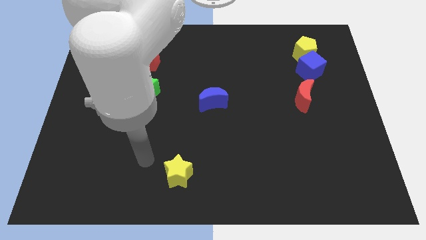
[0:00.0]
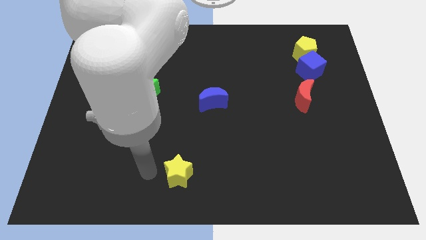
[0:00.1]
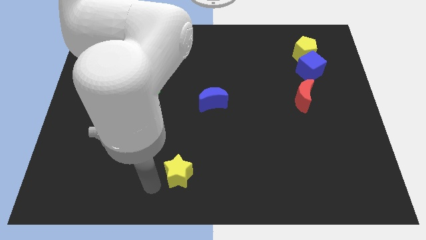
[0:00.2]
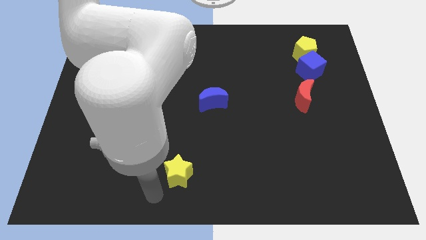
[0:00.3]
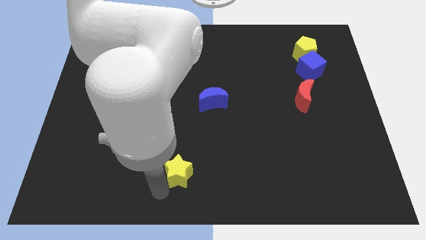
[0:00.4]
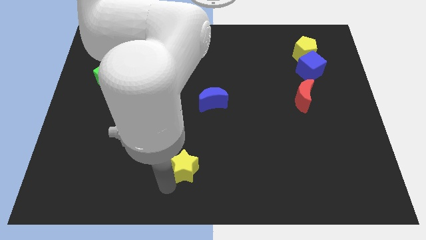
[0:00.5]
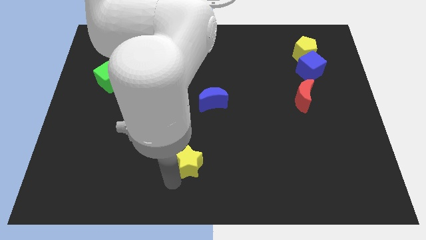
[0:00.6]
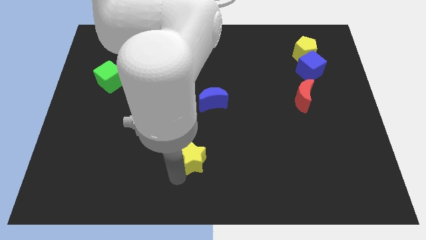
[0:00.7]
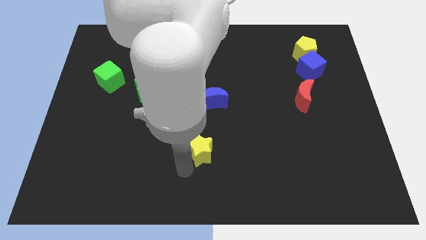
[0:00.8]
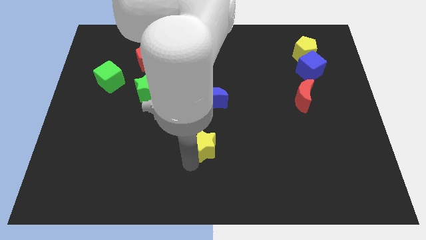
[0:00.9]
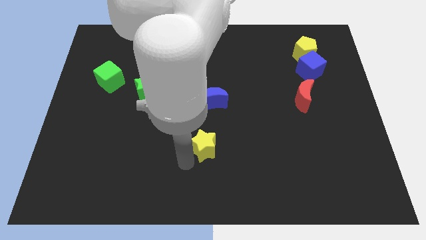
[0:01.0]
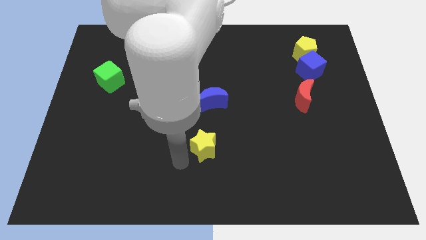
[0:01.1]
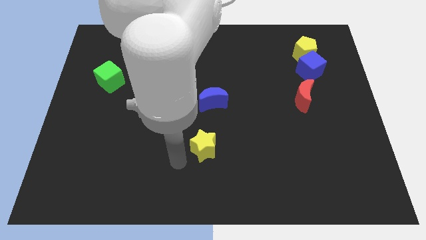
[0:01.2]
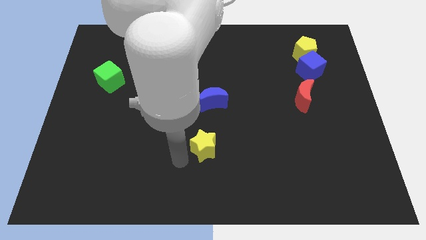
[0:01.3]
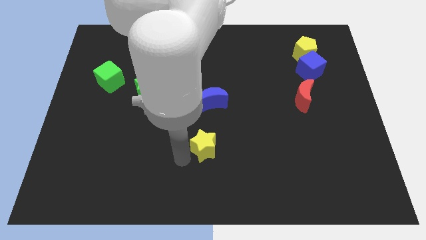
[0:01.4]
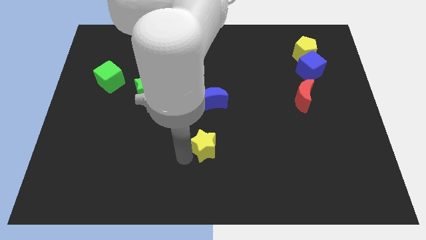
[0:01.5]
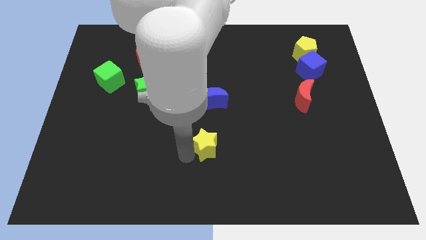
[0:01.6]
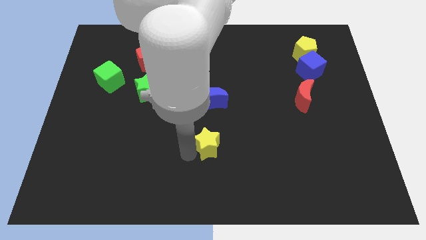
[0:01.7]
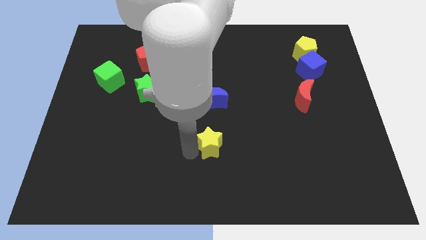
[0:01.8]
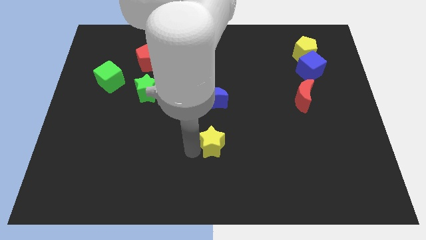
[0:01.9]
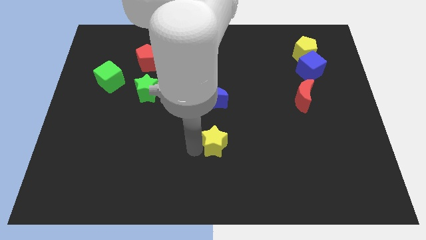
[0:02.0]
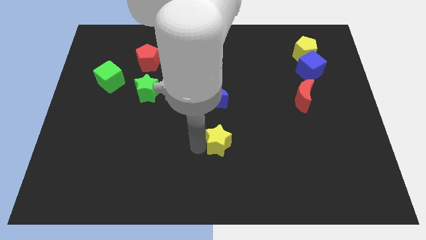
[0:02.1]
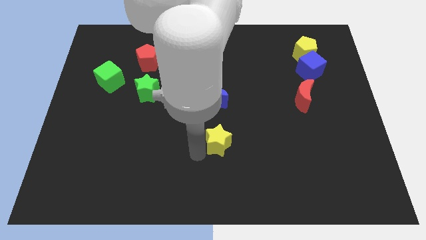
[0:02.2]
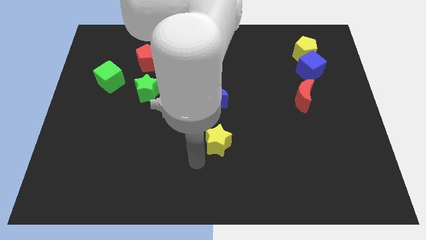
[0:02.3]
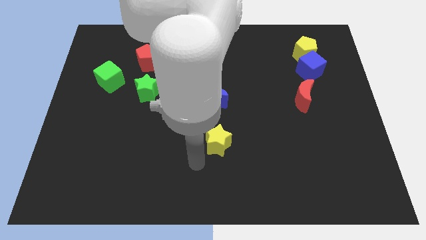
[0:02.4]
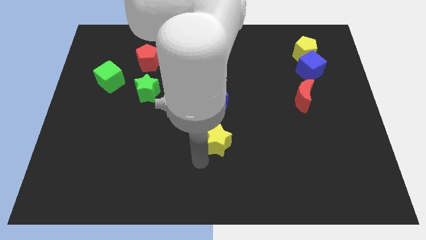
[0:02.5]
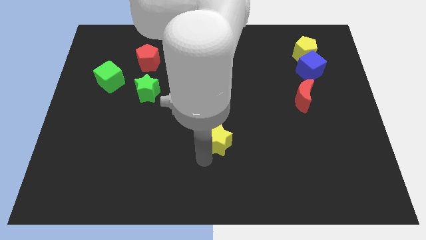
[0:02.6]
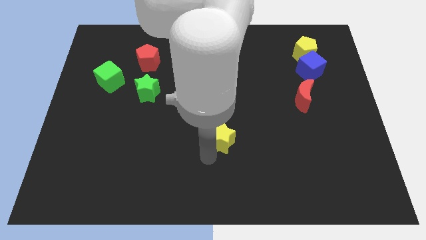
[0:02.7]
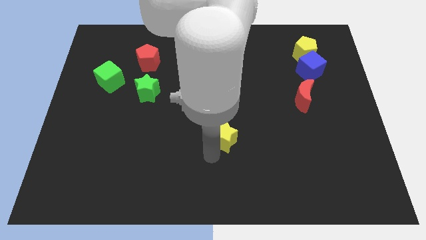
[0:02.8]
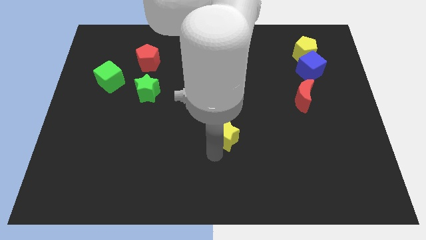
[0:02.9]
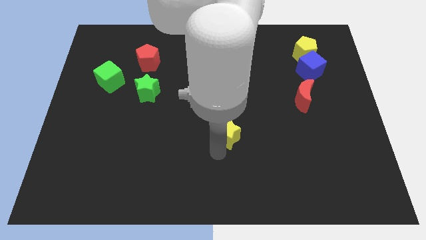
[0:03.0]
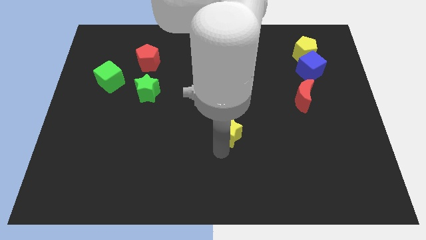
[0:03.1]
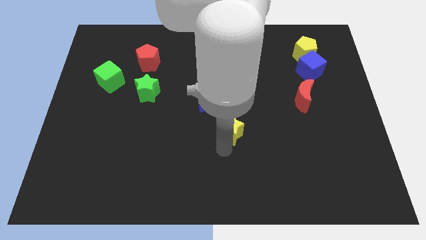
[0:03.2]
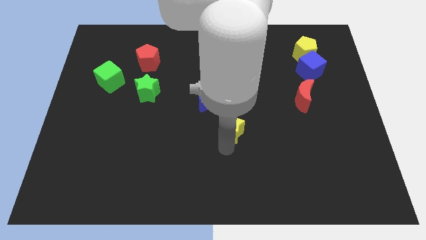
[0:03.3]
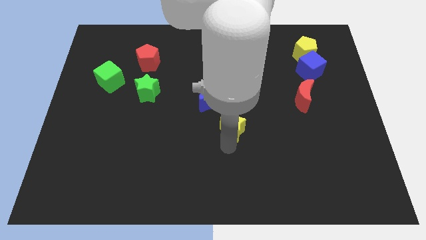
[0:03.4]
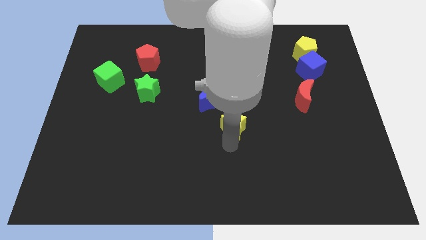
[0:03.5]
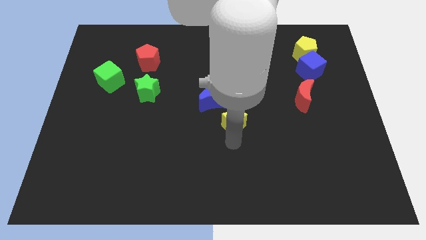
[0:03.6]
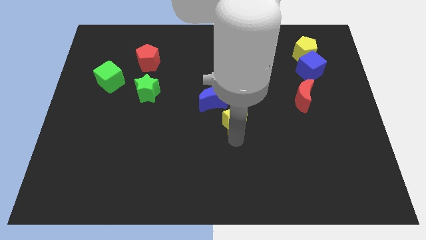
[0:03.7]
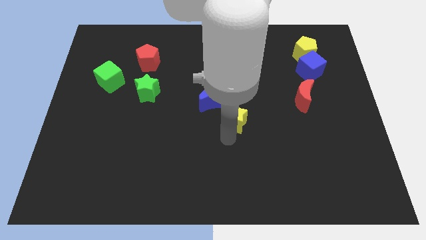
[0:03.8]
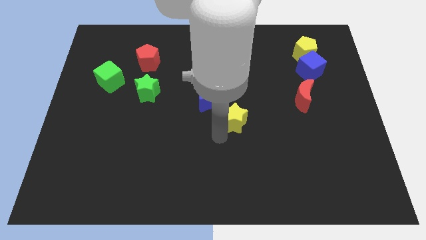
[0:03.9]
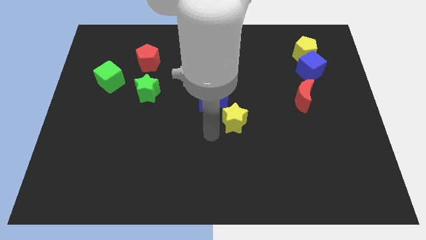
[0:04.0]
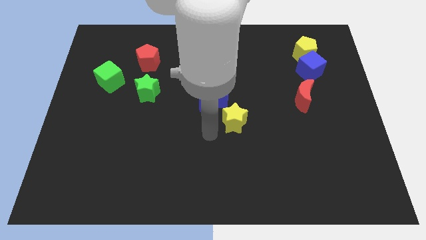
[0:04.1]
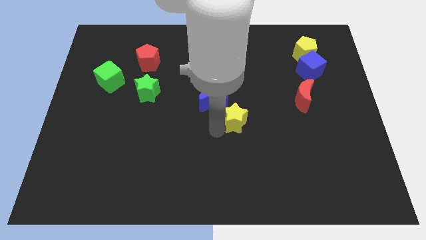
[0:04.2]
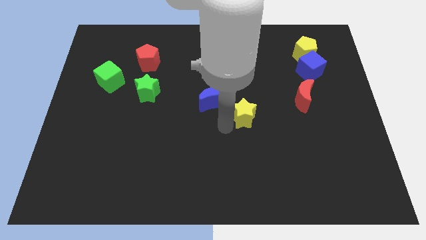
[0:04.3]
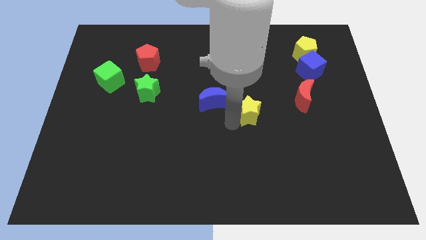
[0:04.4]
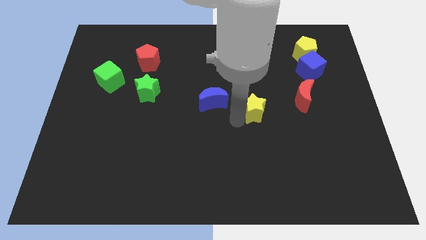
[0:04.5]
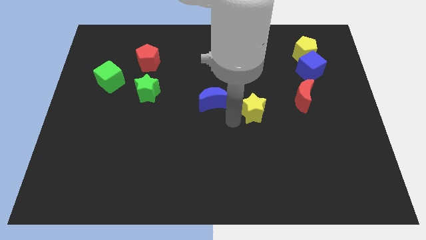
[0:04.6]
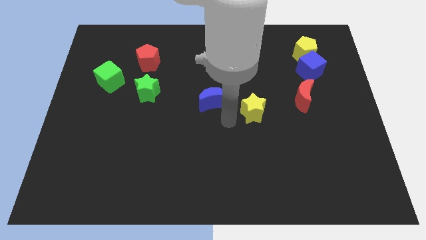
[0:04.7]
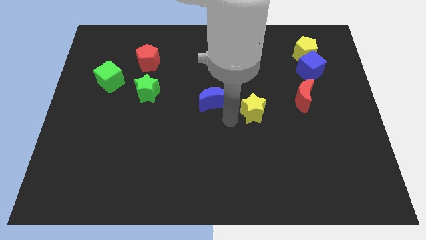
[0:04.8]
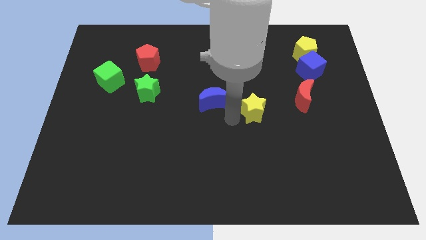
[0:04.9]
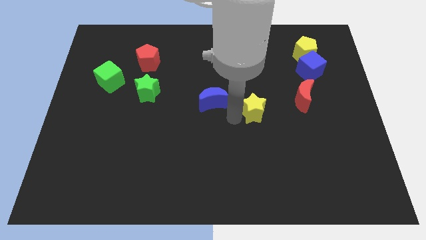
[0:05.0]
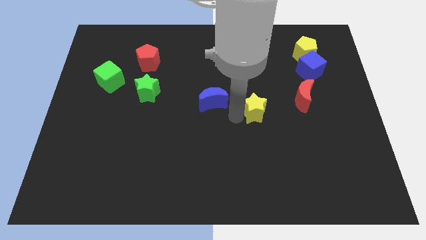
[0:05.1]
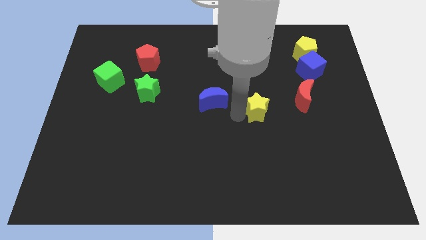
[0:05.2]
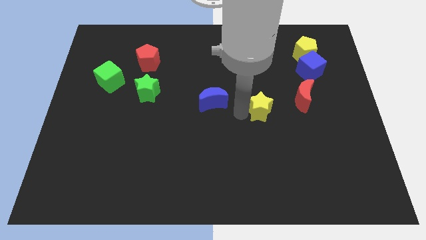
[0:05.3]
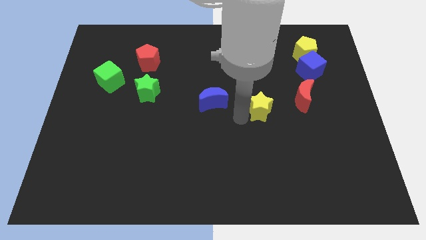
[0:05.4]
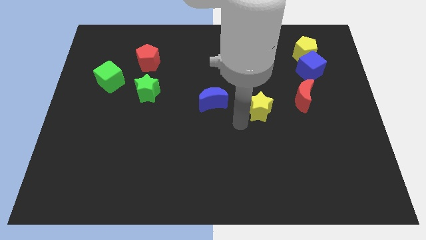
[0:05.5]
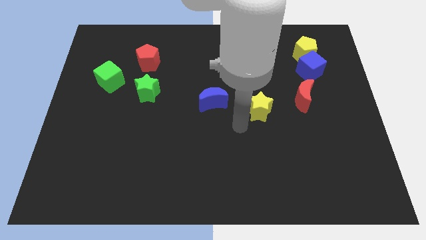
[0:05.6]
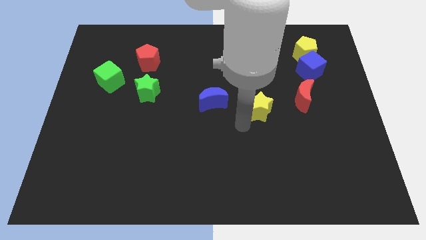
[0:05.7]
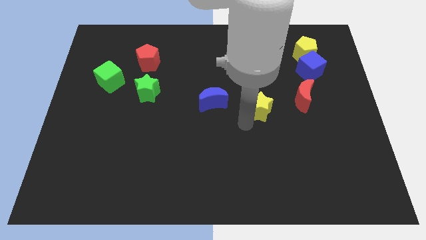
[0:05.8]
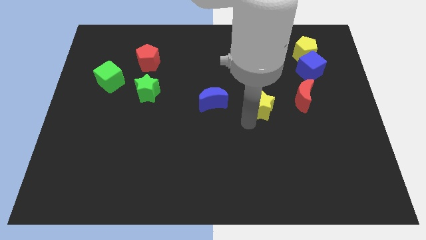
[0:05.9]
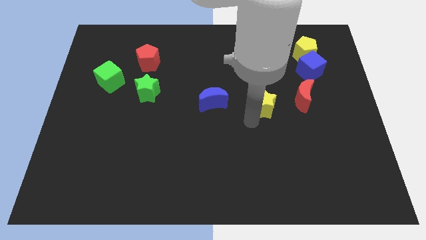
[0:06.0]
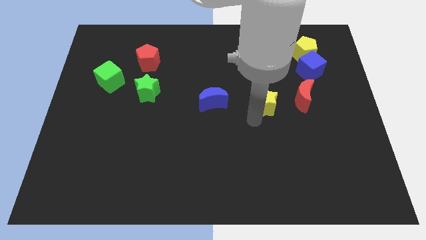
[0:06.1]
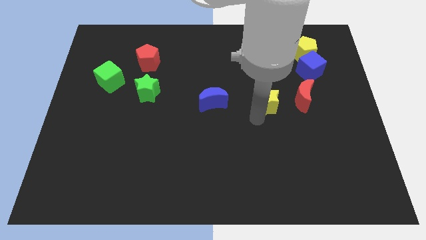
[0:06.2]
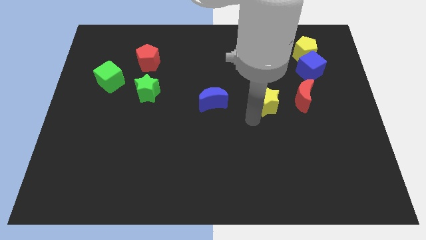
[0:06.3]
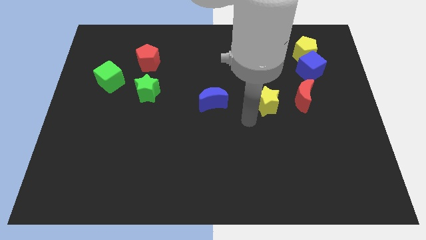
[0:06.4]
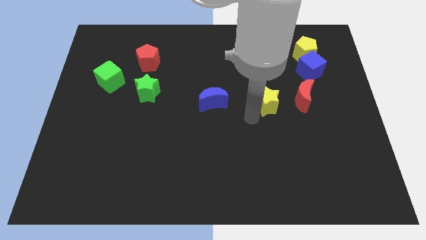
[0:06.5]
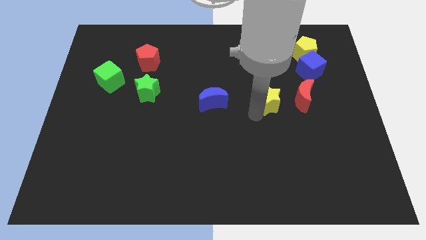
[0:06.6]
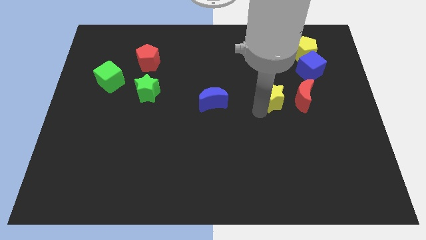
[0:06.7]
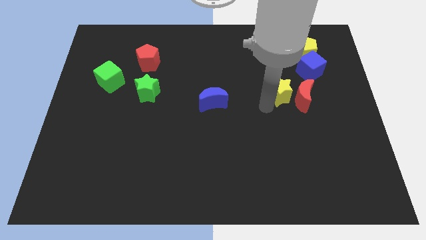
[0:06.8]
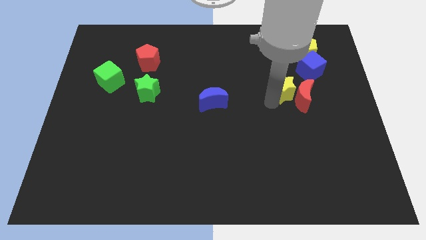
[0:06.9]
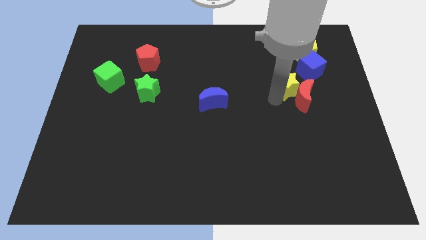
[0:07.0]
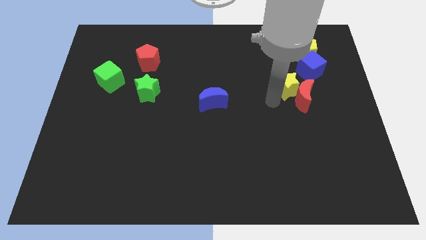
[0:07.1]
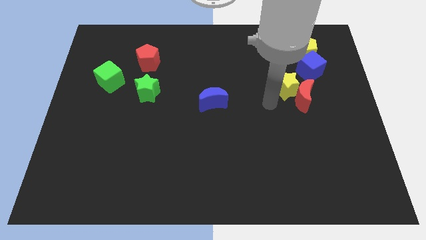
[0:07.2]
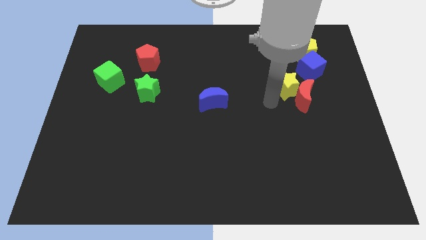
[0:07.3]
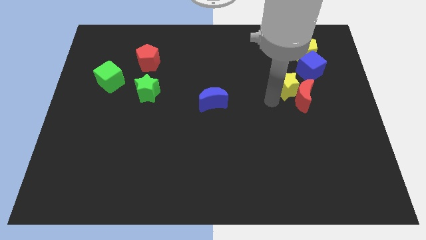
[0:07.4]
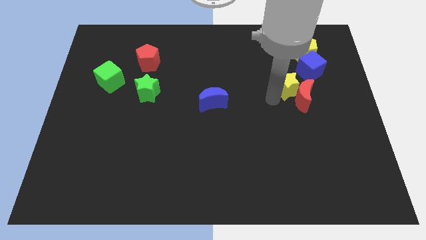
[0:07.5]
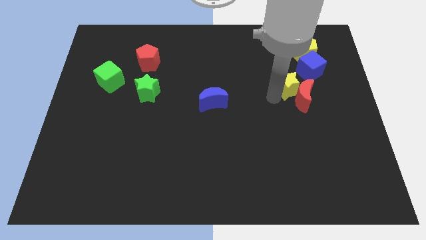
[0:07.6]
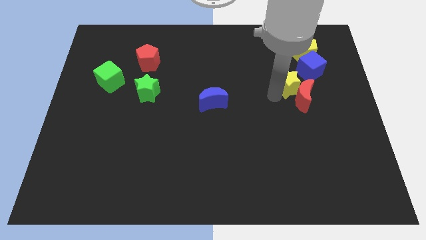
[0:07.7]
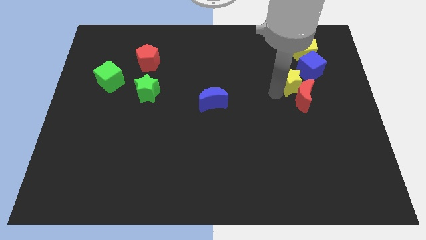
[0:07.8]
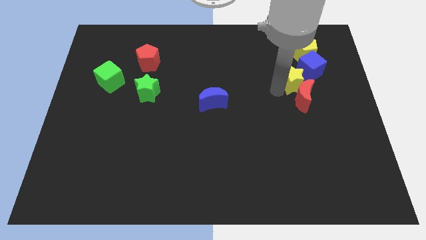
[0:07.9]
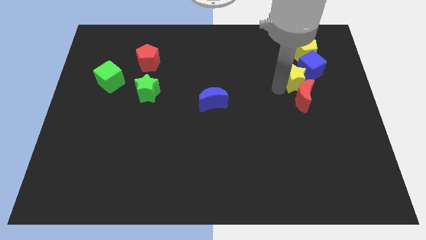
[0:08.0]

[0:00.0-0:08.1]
put the yellow star towards the blue cube
